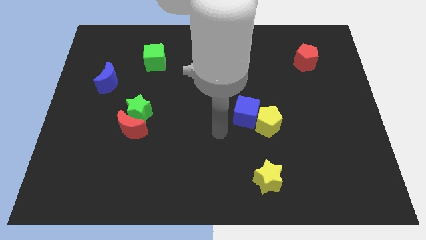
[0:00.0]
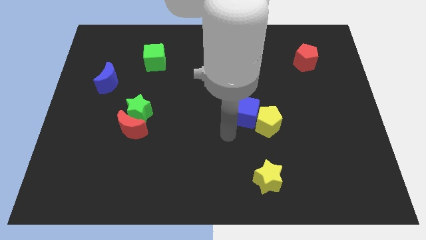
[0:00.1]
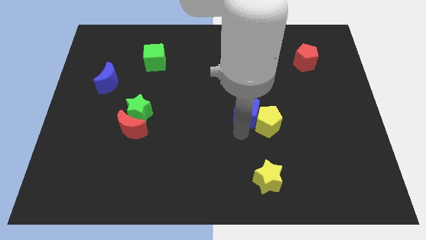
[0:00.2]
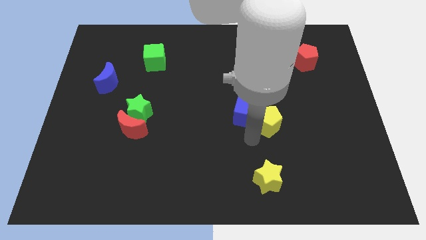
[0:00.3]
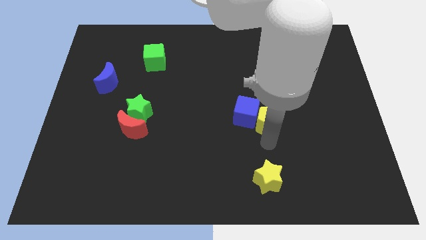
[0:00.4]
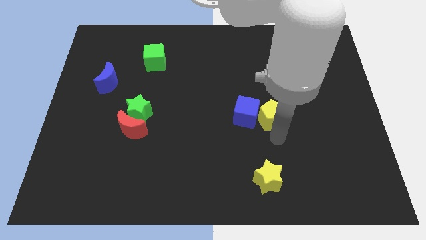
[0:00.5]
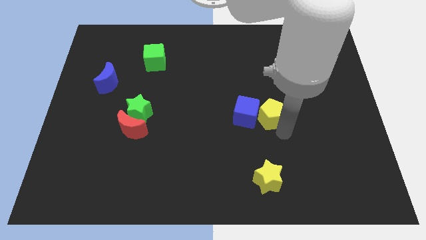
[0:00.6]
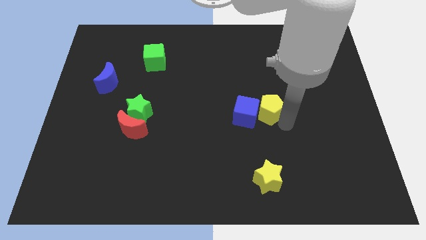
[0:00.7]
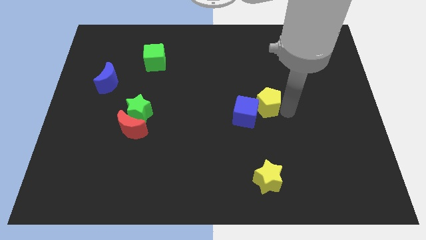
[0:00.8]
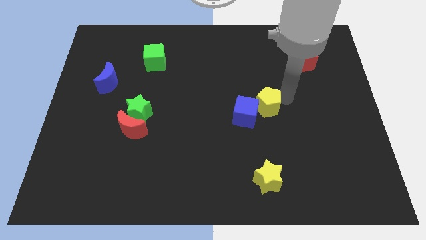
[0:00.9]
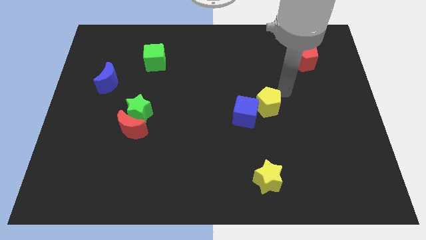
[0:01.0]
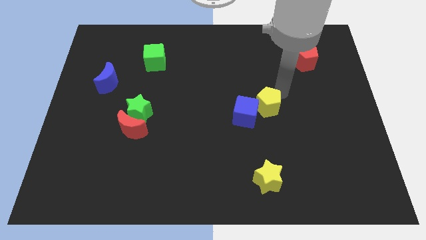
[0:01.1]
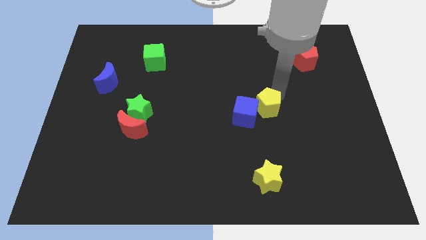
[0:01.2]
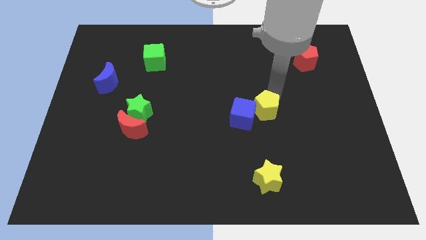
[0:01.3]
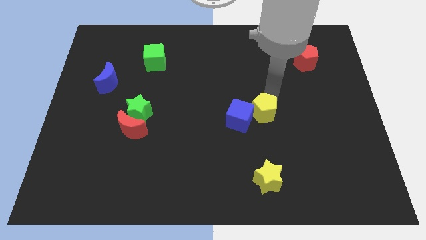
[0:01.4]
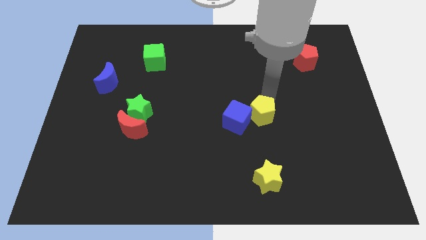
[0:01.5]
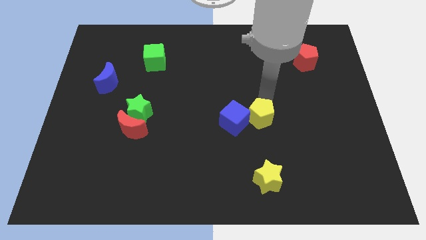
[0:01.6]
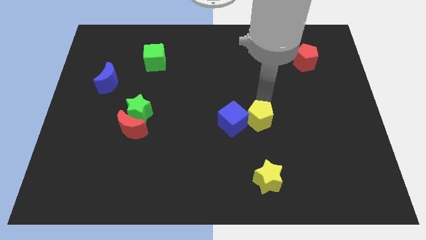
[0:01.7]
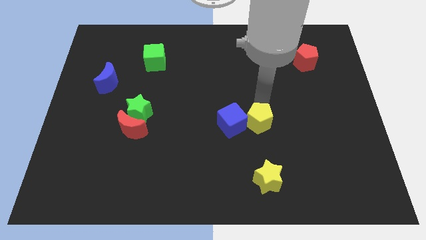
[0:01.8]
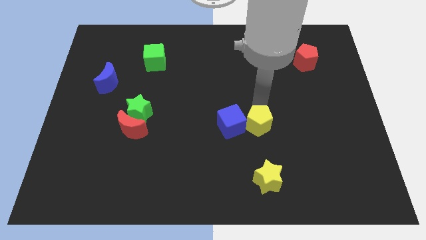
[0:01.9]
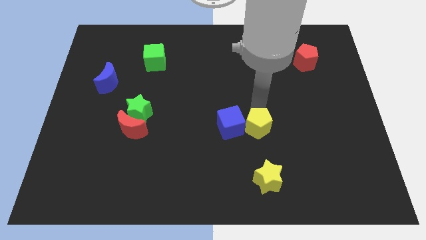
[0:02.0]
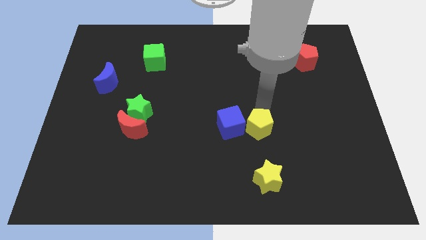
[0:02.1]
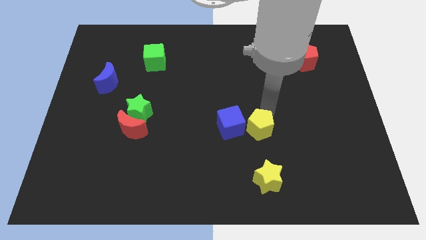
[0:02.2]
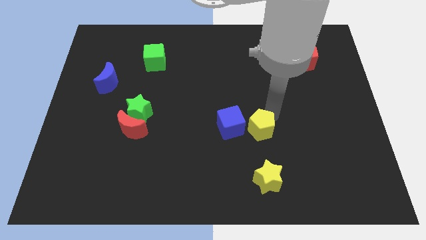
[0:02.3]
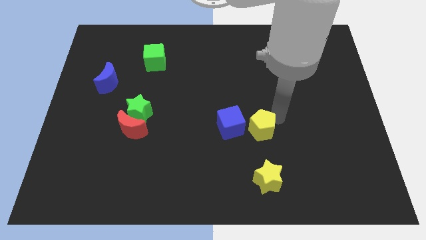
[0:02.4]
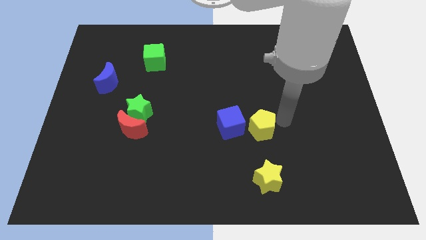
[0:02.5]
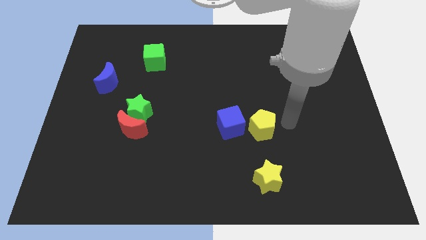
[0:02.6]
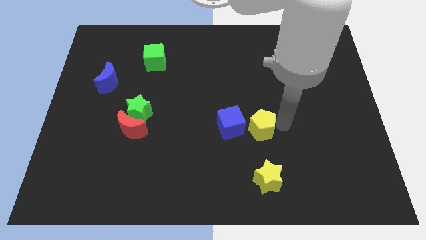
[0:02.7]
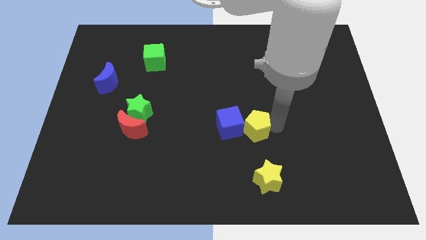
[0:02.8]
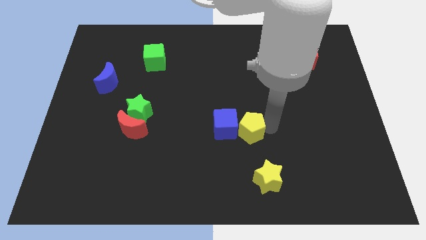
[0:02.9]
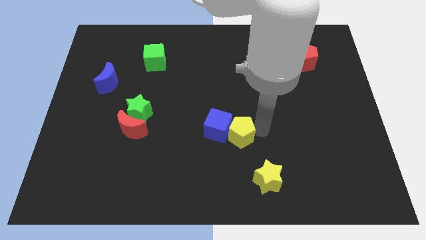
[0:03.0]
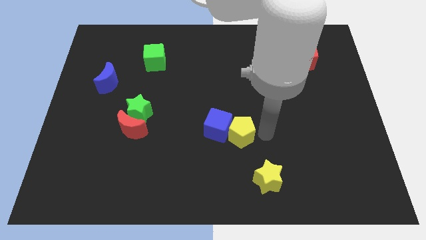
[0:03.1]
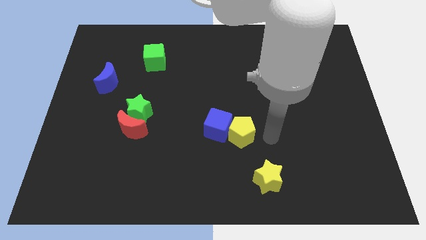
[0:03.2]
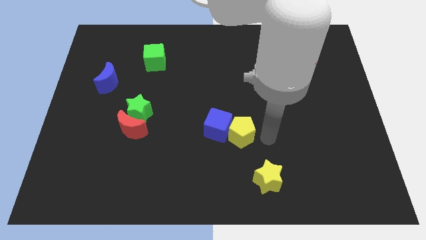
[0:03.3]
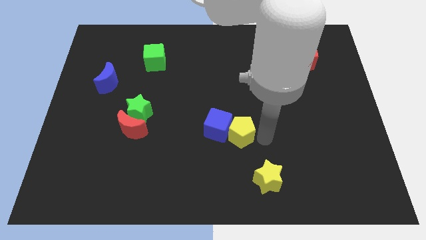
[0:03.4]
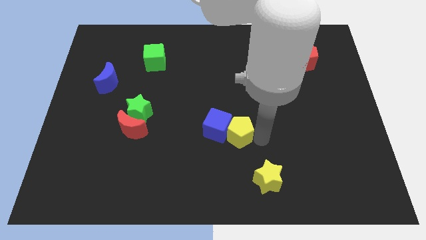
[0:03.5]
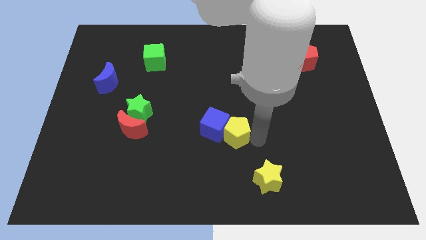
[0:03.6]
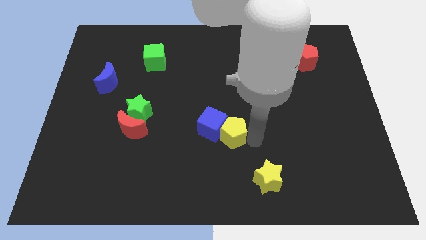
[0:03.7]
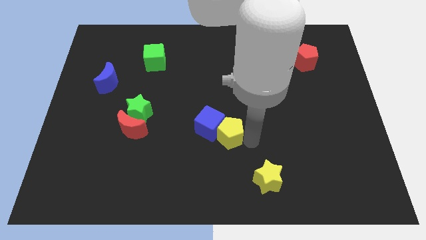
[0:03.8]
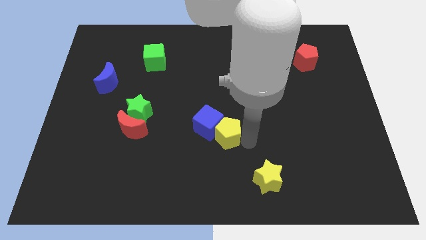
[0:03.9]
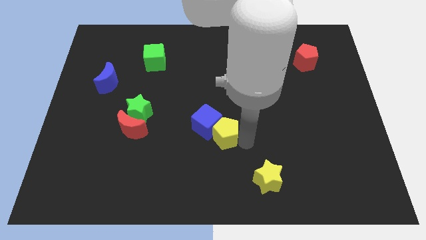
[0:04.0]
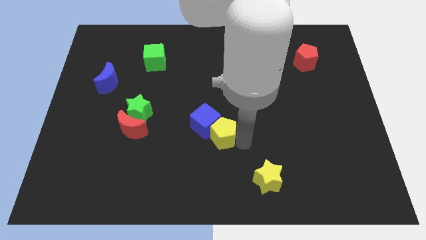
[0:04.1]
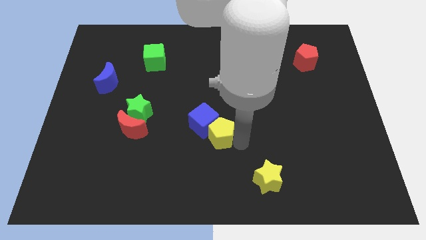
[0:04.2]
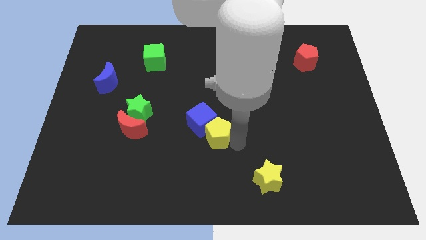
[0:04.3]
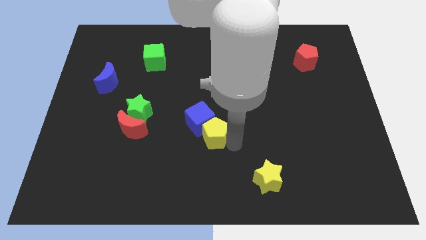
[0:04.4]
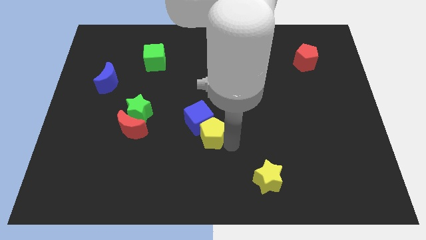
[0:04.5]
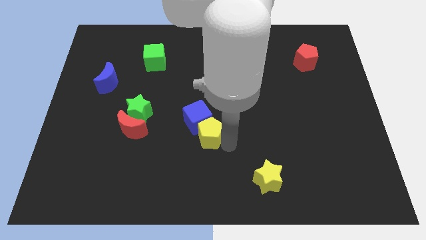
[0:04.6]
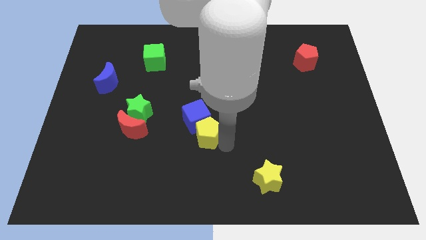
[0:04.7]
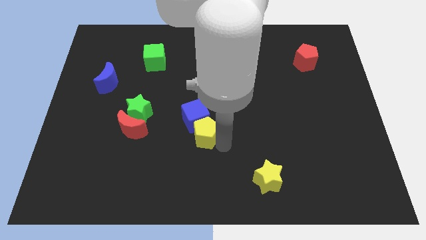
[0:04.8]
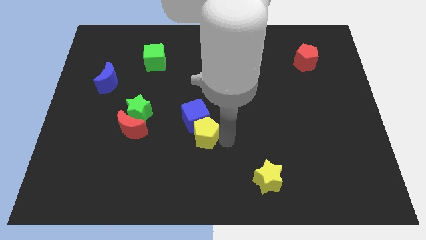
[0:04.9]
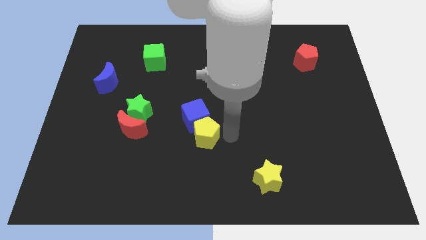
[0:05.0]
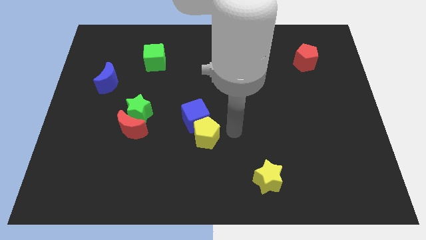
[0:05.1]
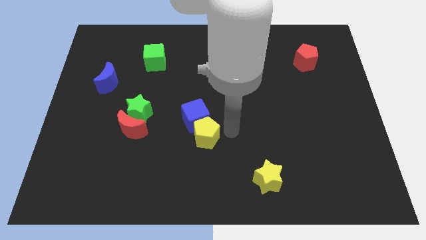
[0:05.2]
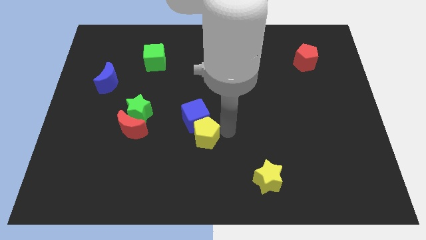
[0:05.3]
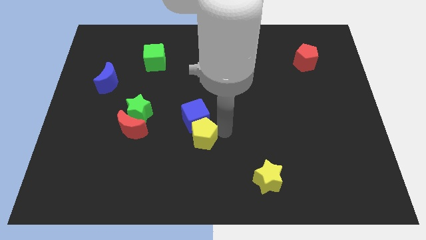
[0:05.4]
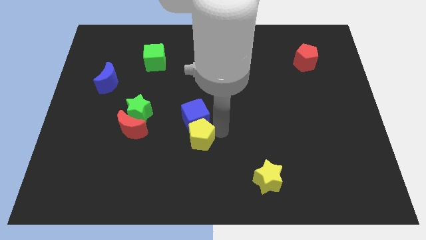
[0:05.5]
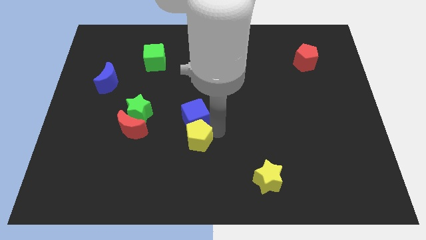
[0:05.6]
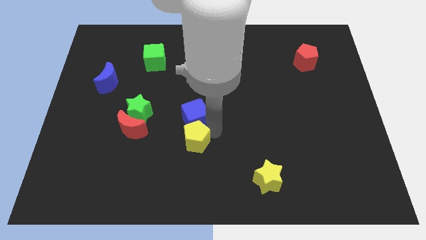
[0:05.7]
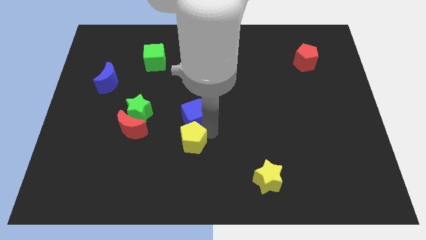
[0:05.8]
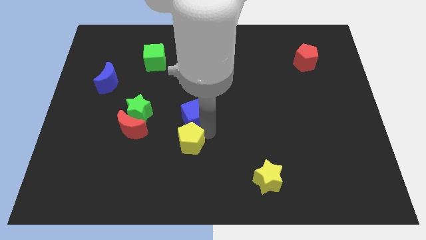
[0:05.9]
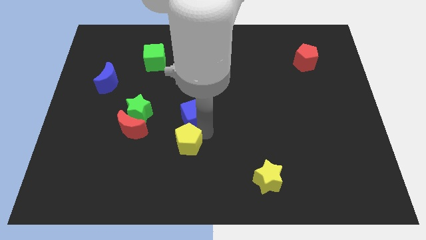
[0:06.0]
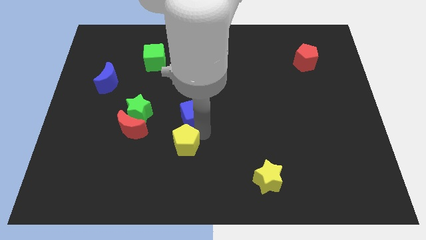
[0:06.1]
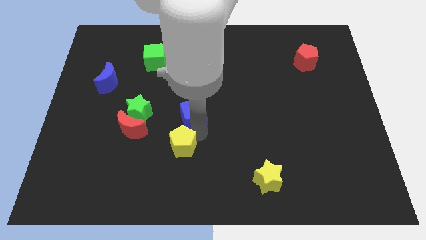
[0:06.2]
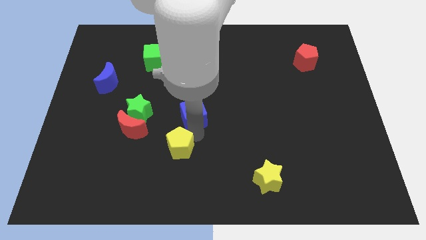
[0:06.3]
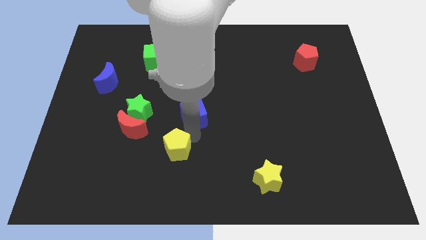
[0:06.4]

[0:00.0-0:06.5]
slide the yellow pentagon diagonally down and to the right of the red moon

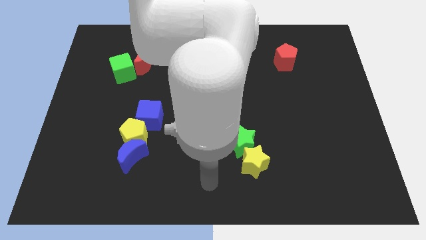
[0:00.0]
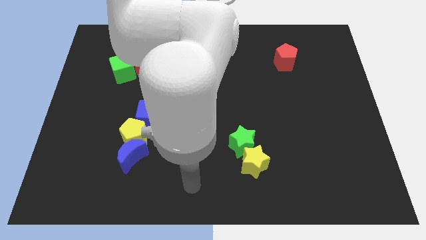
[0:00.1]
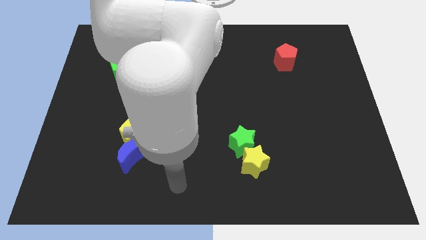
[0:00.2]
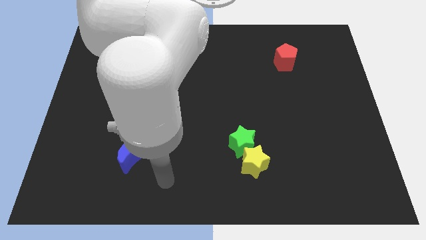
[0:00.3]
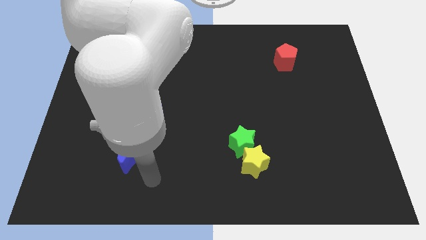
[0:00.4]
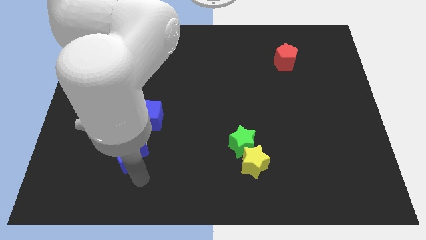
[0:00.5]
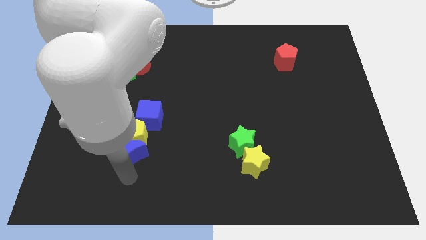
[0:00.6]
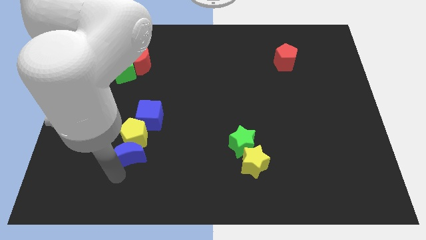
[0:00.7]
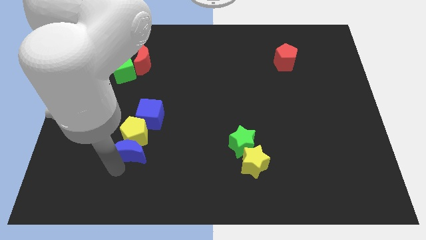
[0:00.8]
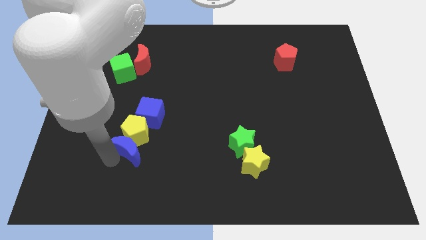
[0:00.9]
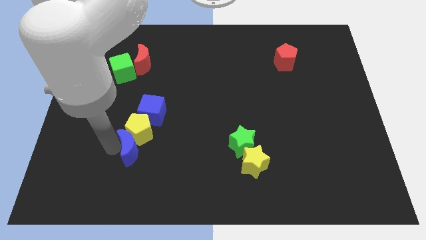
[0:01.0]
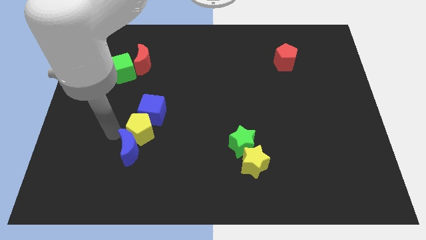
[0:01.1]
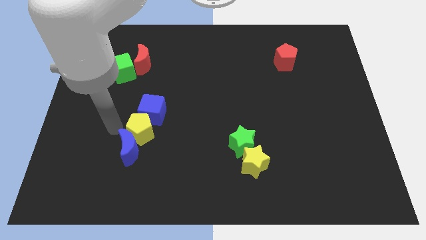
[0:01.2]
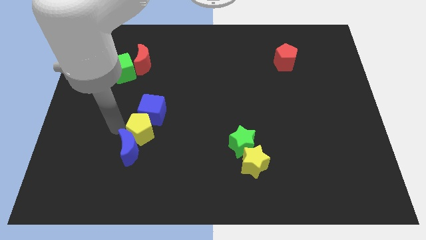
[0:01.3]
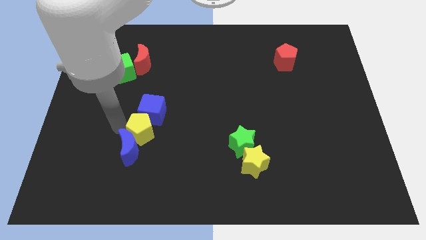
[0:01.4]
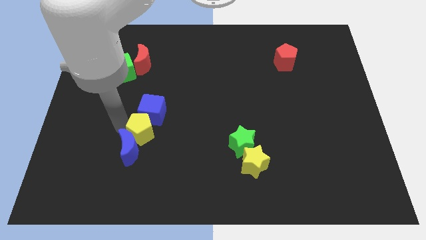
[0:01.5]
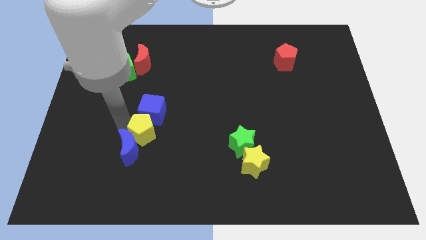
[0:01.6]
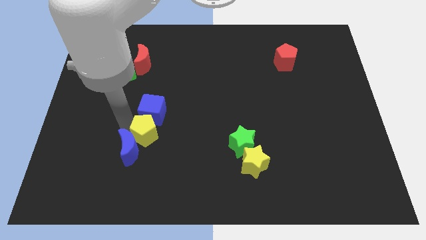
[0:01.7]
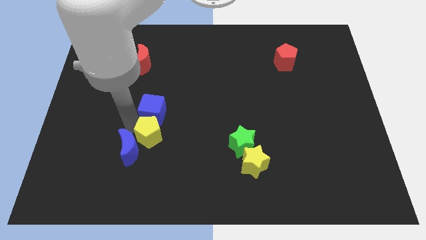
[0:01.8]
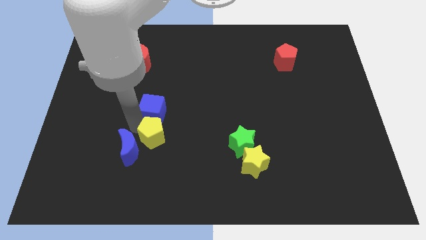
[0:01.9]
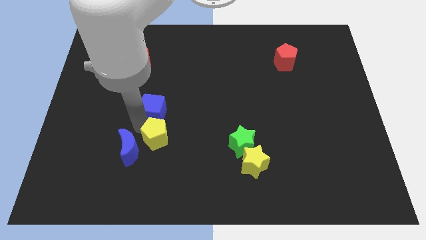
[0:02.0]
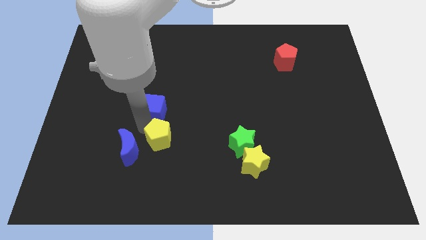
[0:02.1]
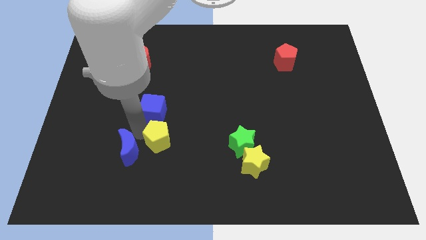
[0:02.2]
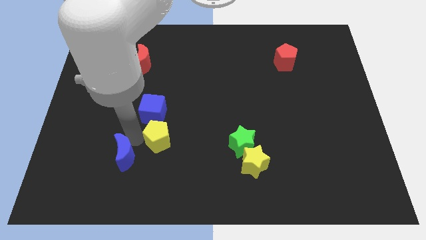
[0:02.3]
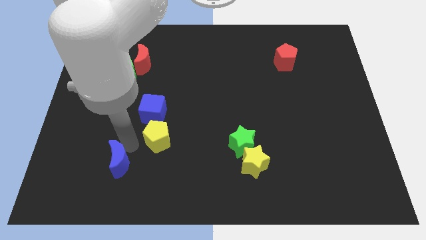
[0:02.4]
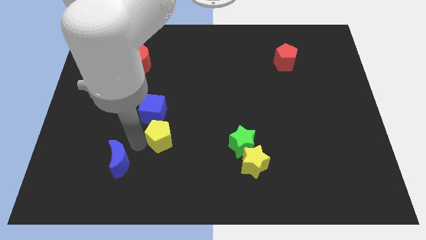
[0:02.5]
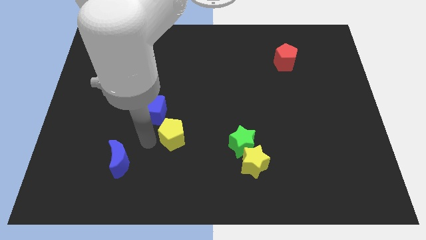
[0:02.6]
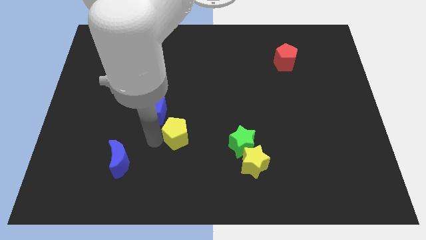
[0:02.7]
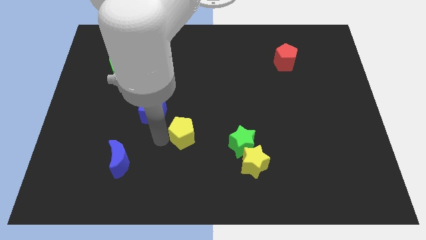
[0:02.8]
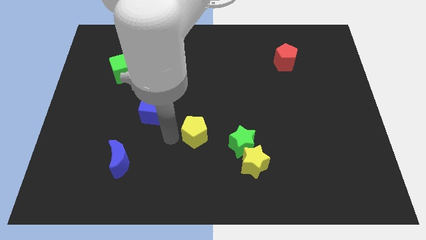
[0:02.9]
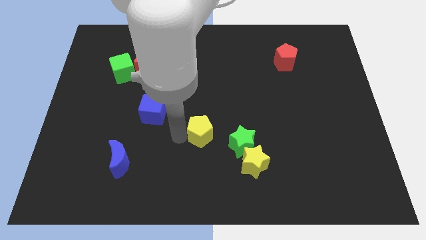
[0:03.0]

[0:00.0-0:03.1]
slide the yellow pentagon diagonally up and to the left of the green star
